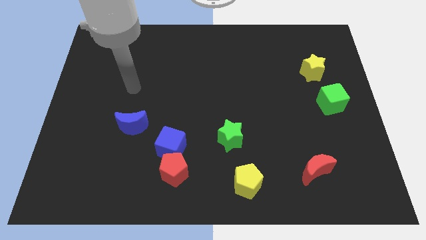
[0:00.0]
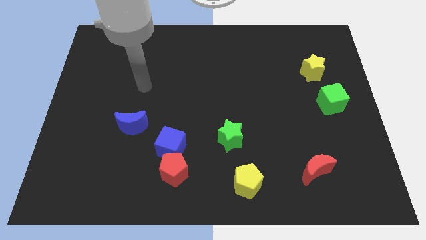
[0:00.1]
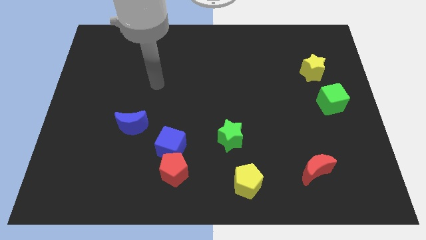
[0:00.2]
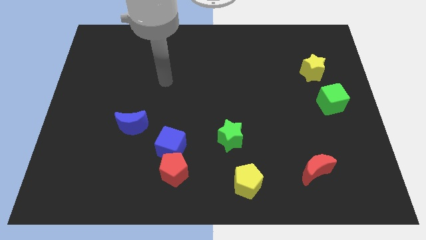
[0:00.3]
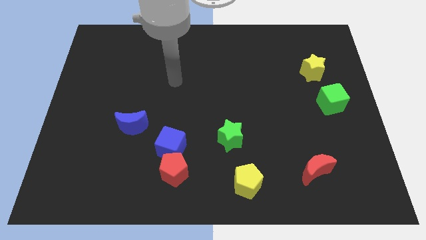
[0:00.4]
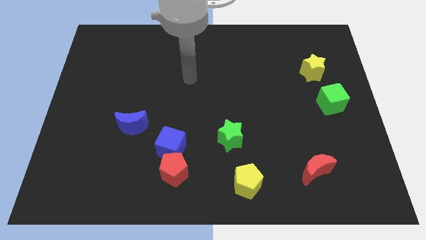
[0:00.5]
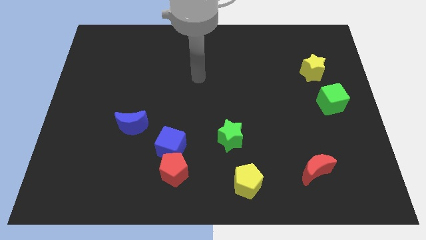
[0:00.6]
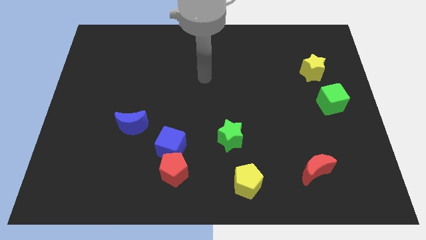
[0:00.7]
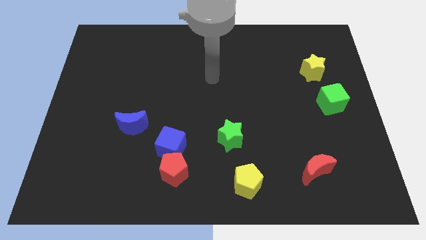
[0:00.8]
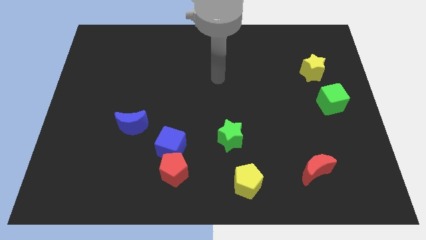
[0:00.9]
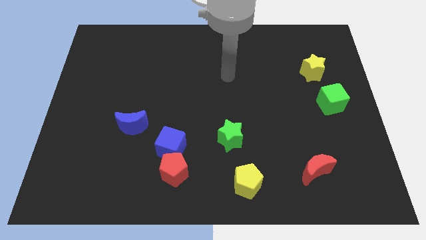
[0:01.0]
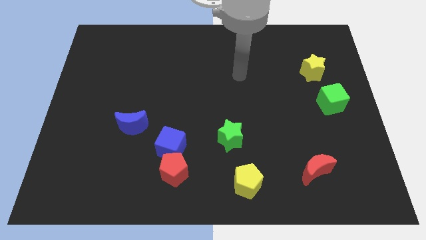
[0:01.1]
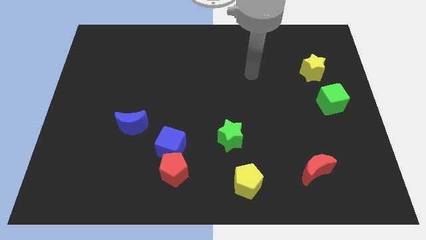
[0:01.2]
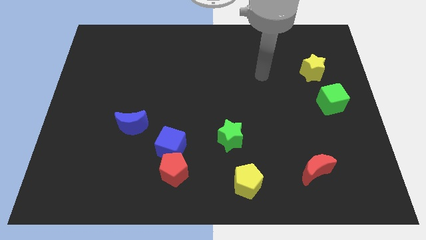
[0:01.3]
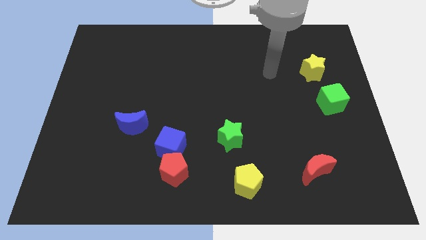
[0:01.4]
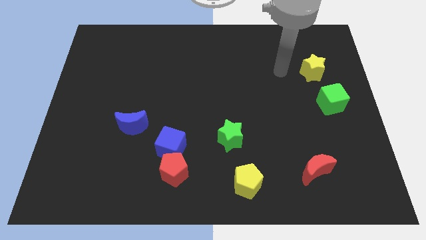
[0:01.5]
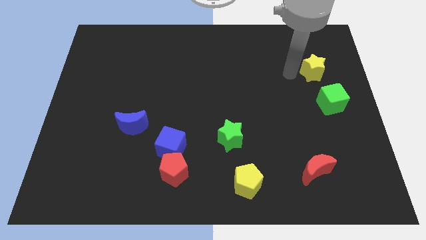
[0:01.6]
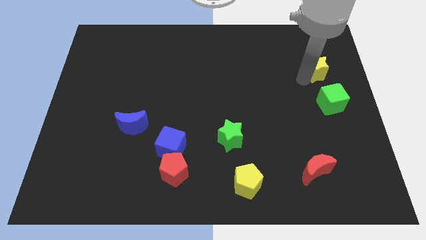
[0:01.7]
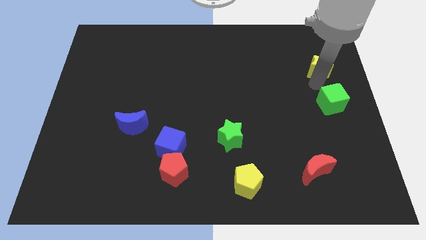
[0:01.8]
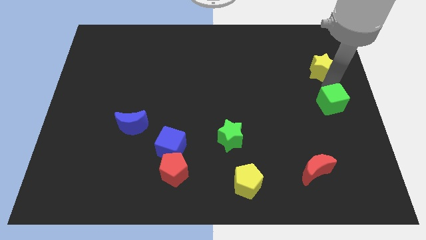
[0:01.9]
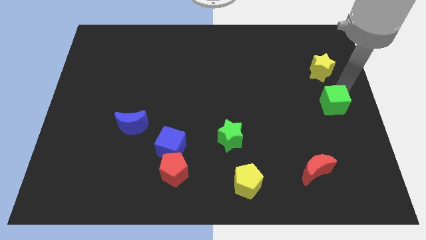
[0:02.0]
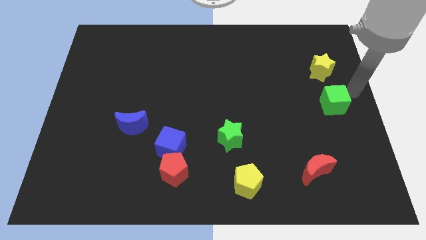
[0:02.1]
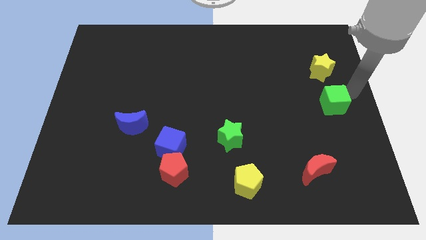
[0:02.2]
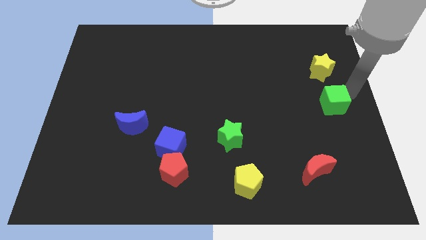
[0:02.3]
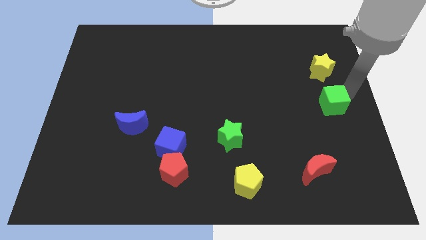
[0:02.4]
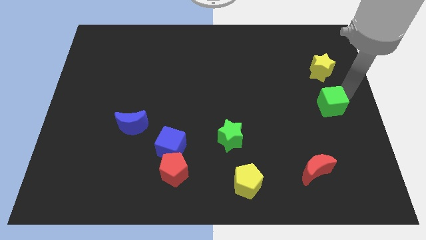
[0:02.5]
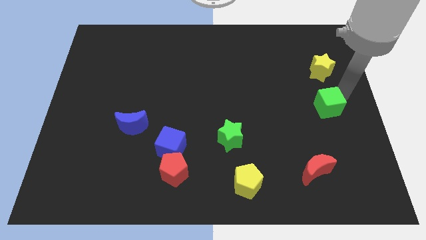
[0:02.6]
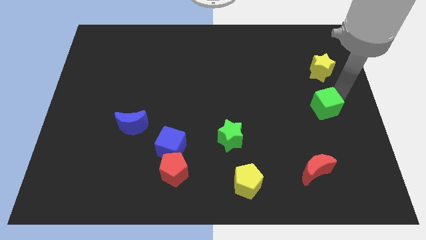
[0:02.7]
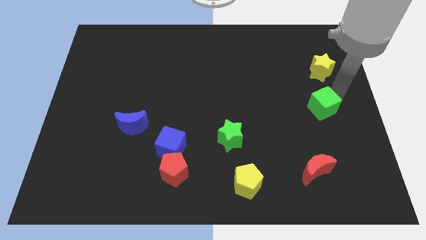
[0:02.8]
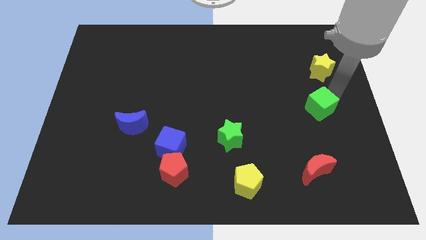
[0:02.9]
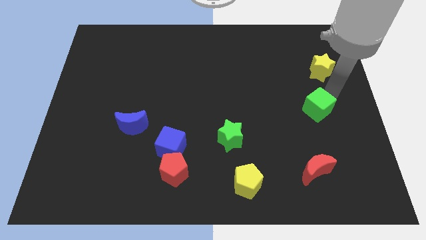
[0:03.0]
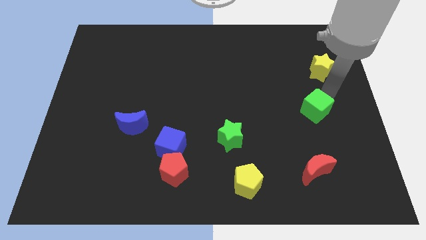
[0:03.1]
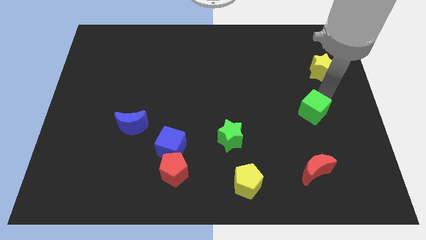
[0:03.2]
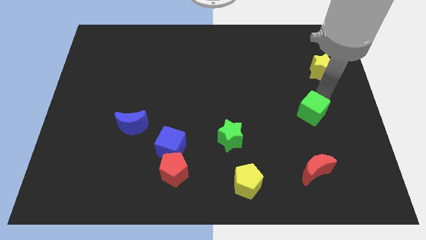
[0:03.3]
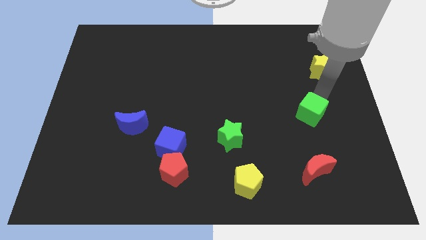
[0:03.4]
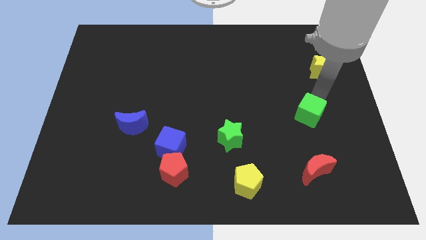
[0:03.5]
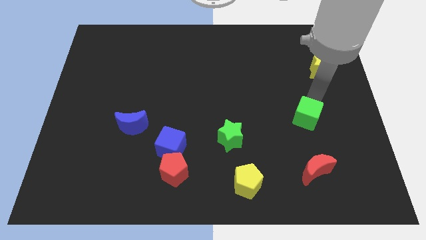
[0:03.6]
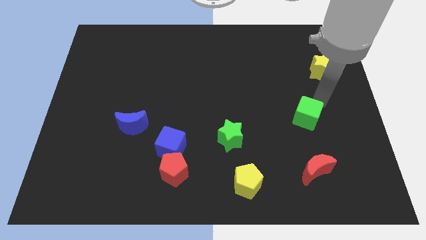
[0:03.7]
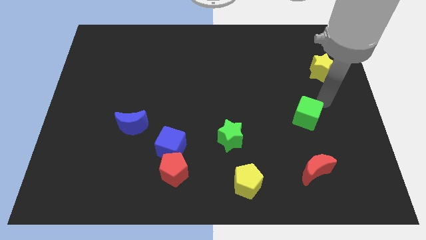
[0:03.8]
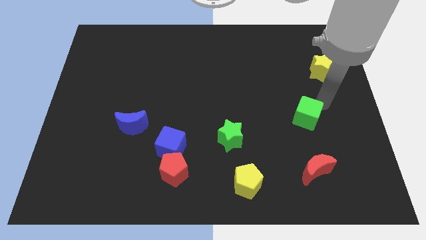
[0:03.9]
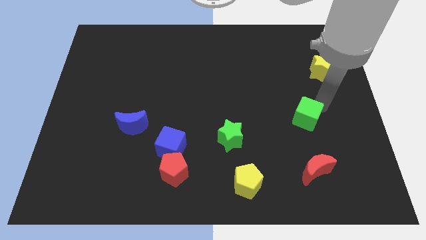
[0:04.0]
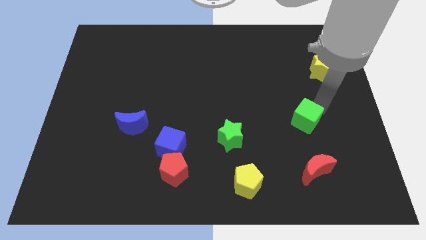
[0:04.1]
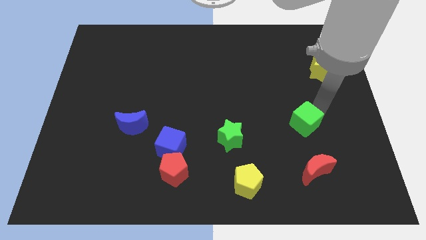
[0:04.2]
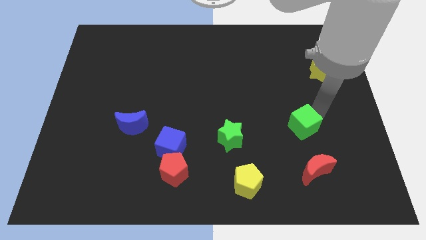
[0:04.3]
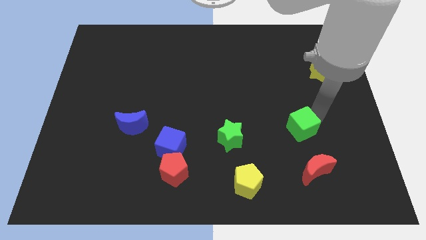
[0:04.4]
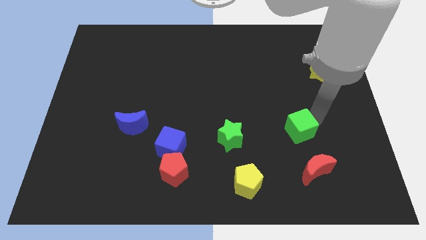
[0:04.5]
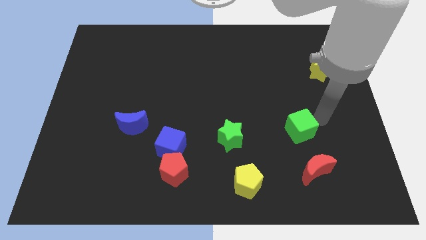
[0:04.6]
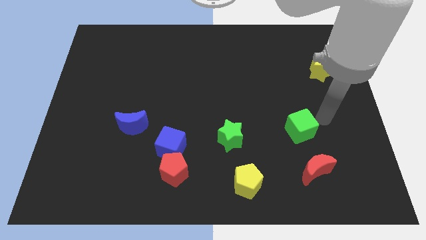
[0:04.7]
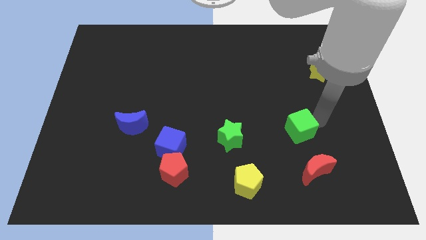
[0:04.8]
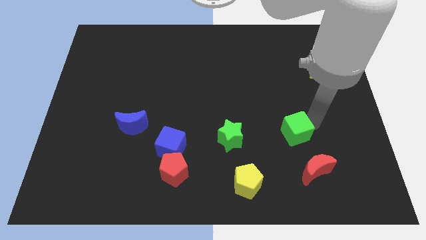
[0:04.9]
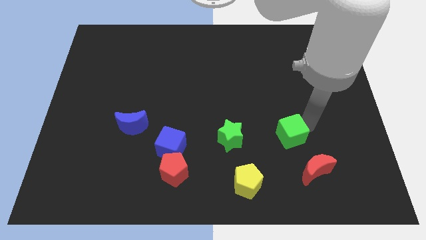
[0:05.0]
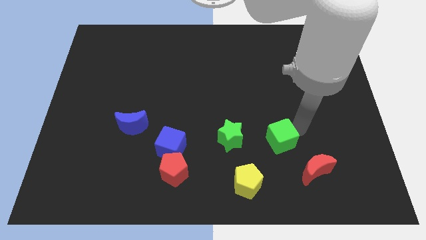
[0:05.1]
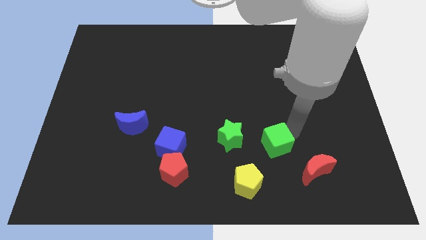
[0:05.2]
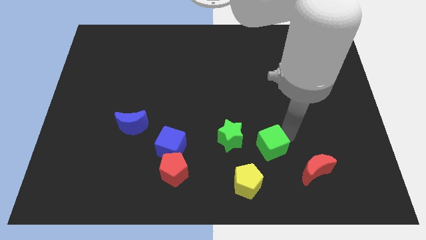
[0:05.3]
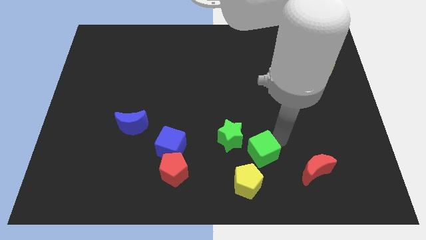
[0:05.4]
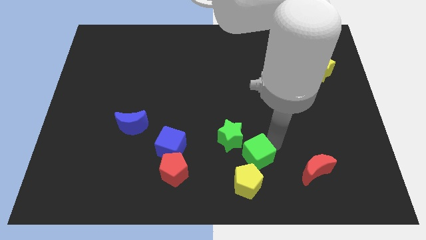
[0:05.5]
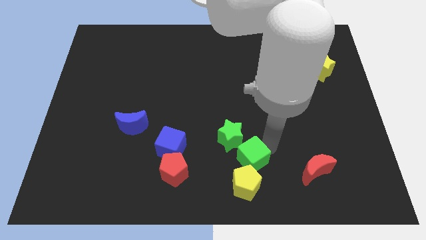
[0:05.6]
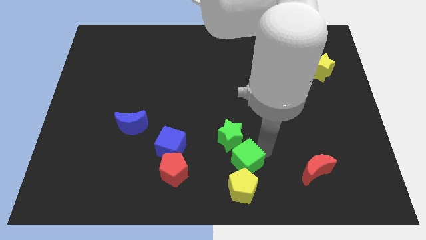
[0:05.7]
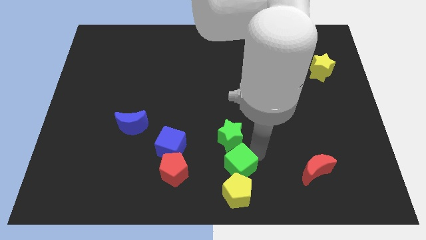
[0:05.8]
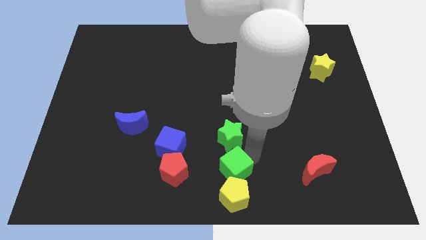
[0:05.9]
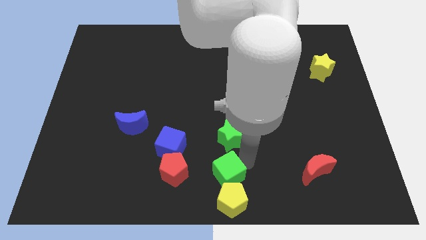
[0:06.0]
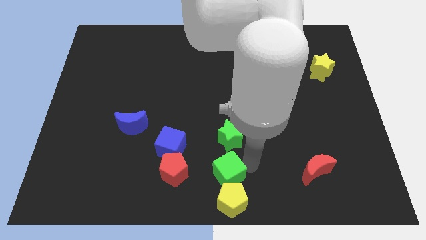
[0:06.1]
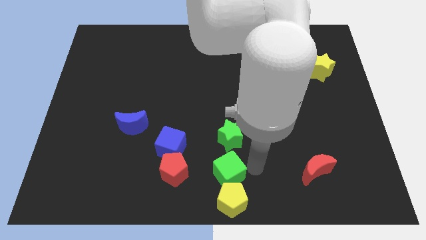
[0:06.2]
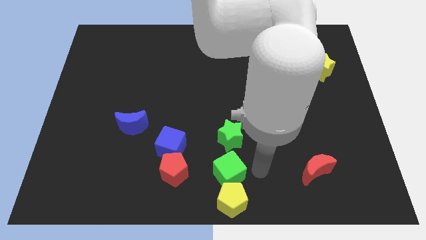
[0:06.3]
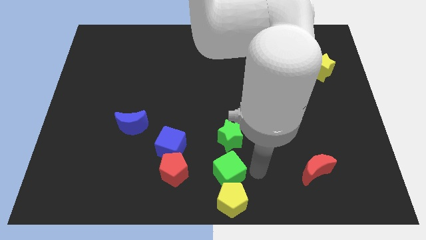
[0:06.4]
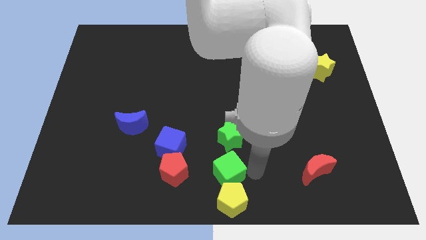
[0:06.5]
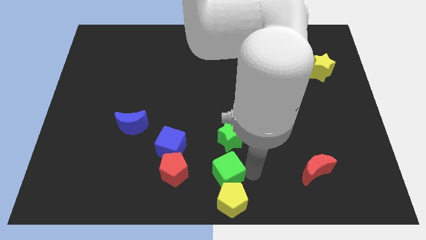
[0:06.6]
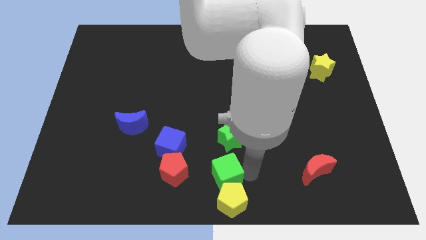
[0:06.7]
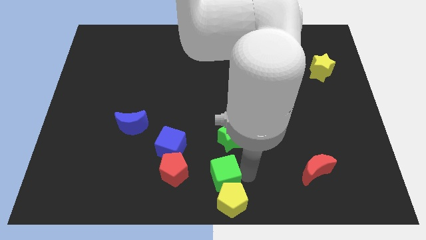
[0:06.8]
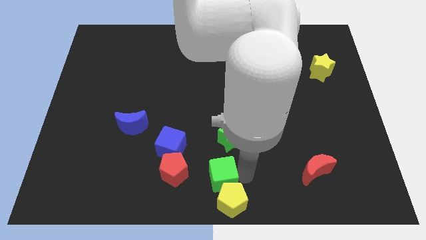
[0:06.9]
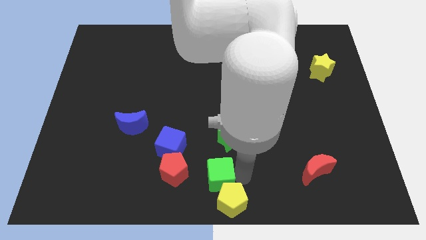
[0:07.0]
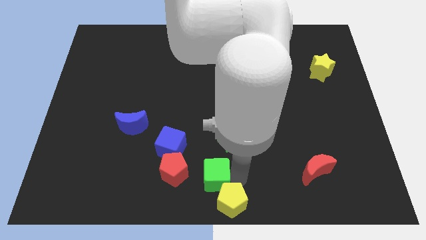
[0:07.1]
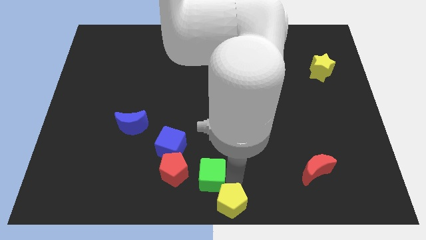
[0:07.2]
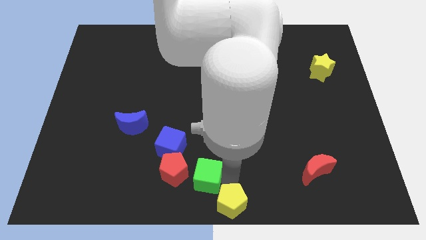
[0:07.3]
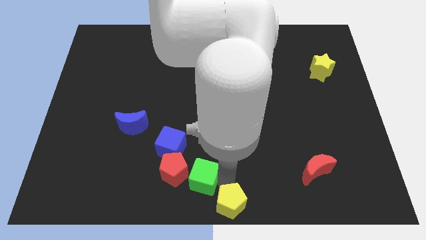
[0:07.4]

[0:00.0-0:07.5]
move the green cube next to the red pentagon

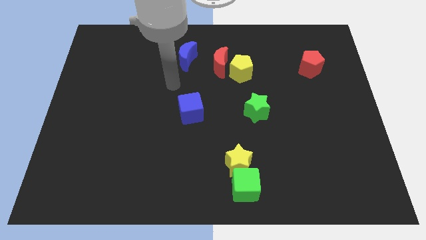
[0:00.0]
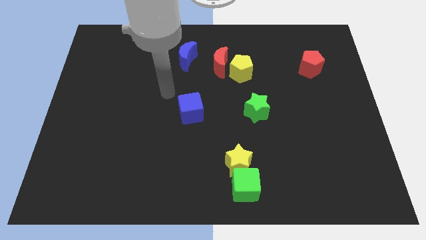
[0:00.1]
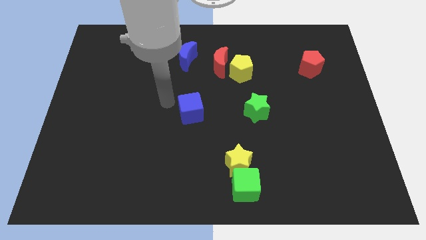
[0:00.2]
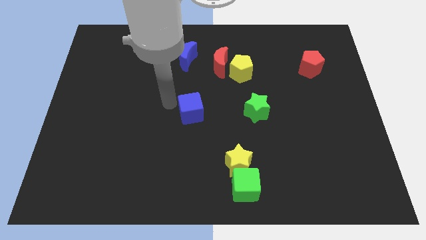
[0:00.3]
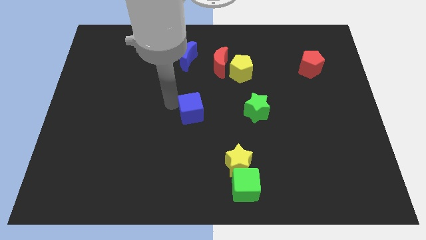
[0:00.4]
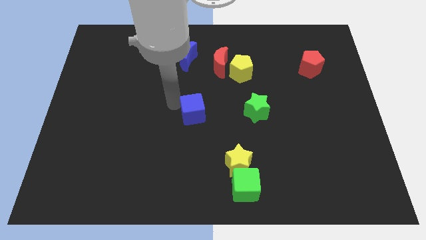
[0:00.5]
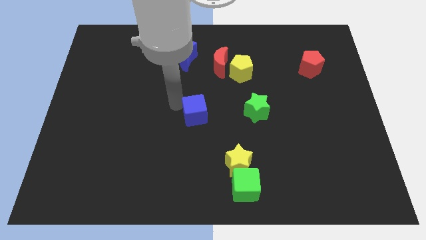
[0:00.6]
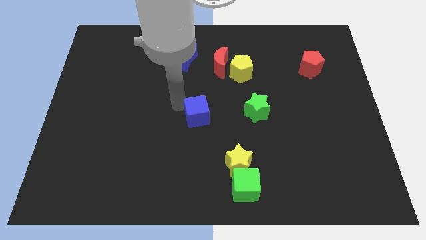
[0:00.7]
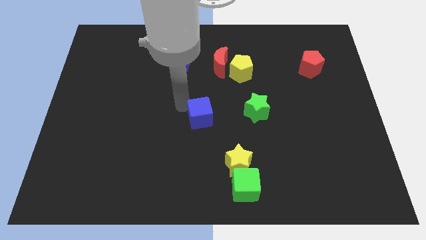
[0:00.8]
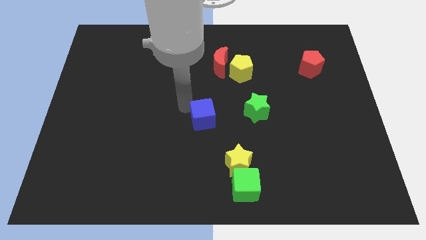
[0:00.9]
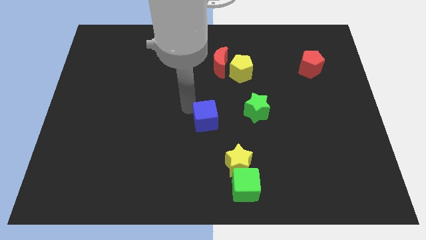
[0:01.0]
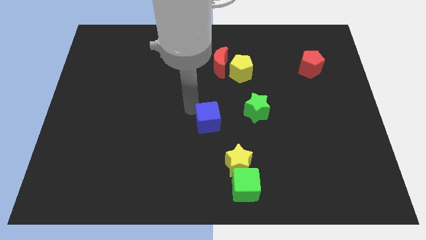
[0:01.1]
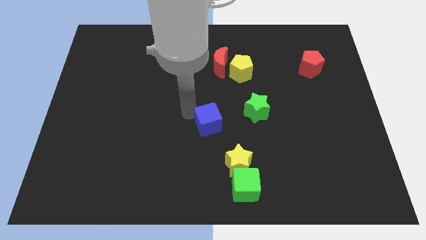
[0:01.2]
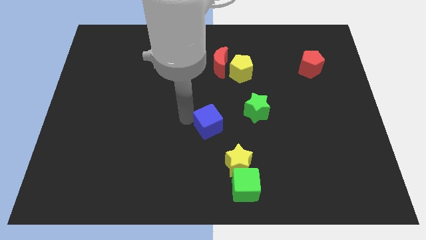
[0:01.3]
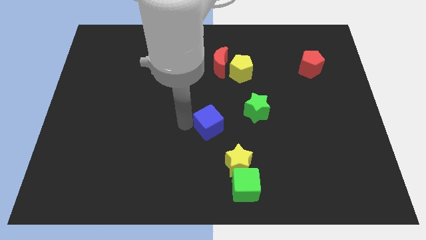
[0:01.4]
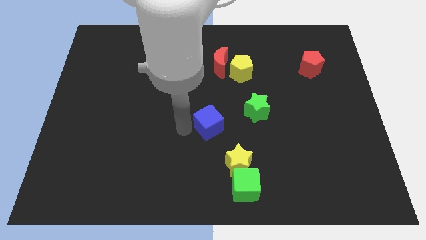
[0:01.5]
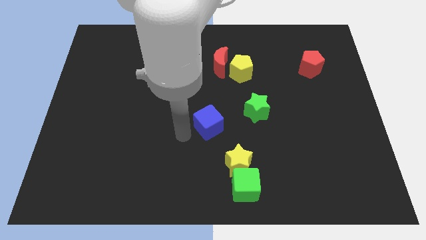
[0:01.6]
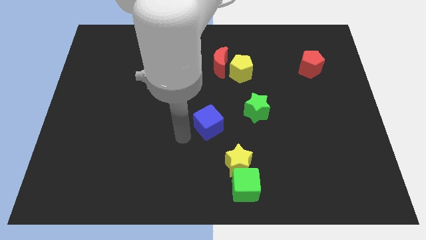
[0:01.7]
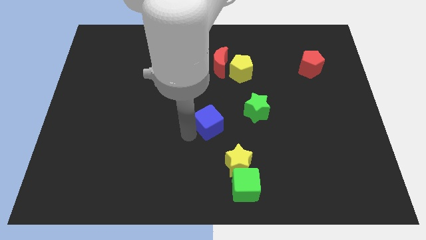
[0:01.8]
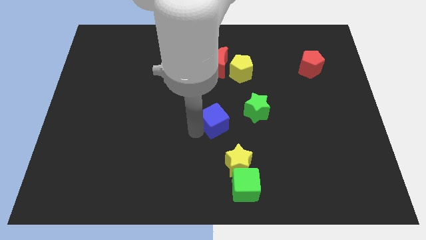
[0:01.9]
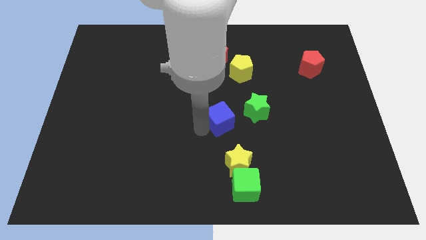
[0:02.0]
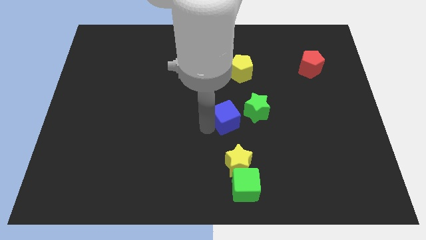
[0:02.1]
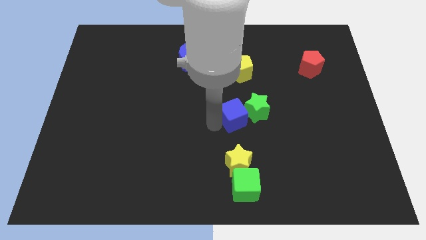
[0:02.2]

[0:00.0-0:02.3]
push the blue cube next to the green star
